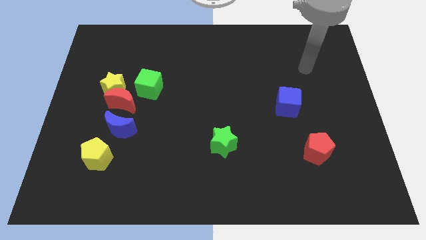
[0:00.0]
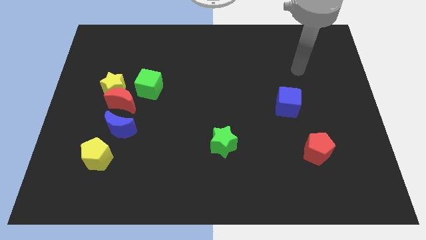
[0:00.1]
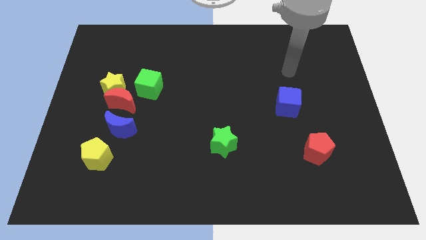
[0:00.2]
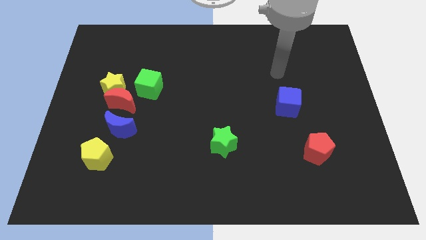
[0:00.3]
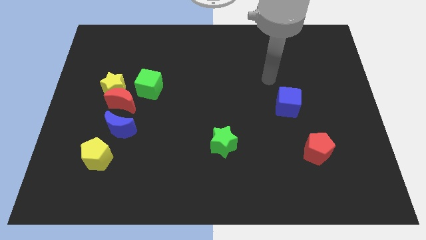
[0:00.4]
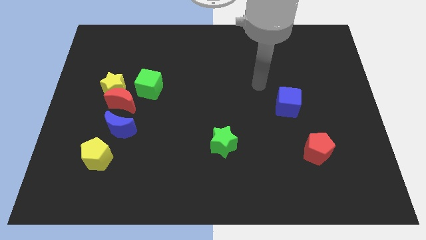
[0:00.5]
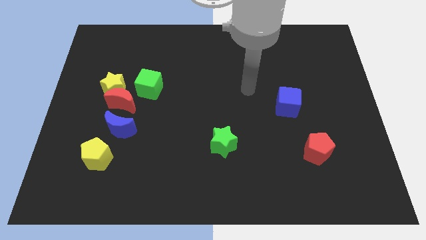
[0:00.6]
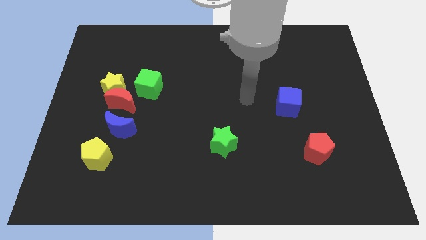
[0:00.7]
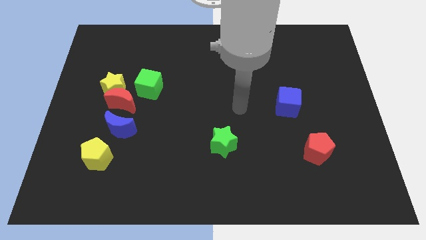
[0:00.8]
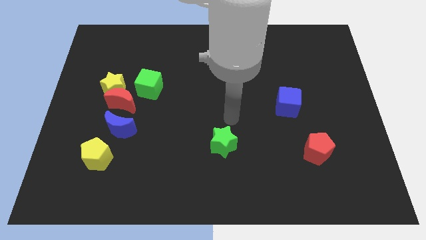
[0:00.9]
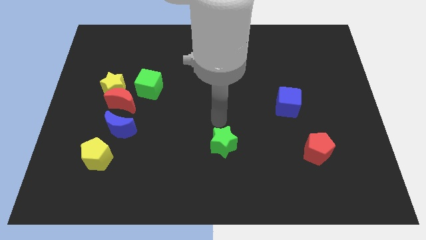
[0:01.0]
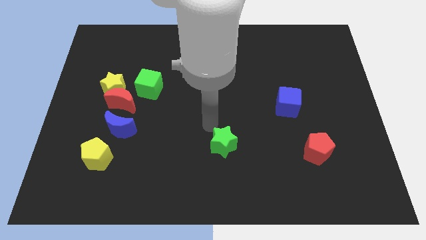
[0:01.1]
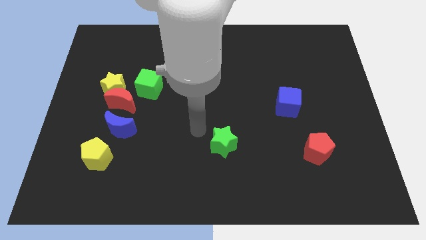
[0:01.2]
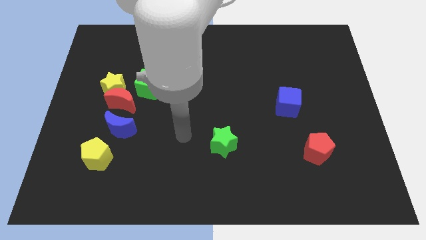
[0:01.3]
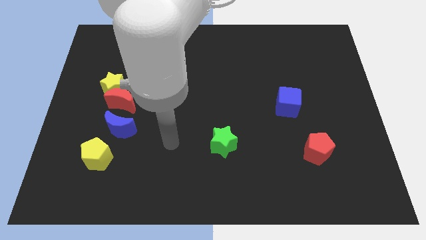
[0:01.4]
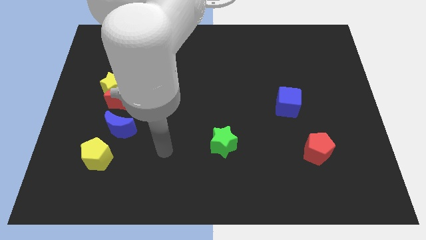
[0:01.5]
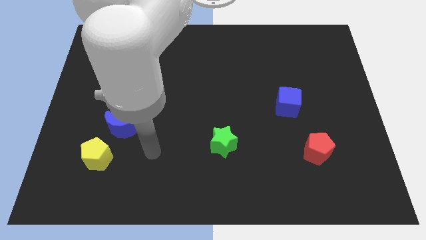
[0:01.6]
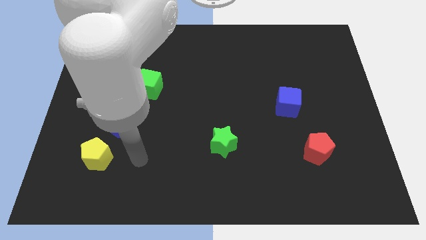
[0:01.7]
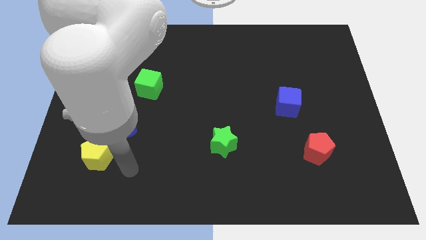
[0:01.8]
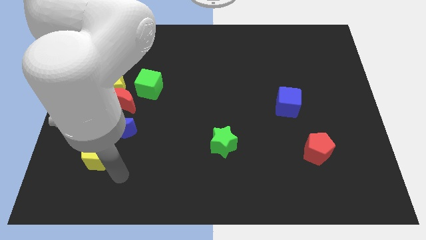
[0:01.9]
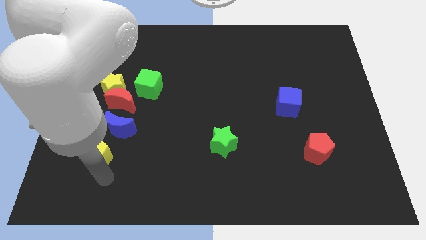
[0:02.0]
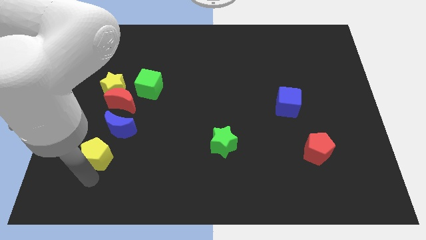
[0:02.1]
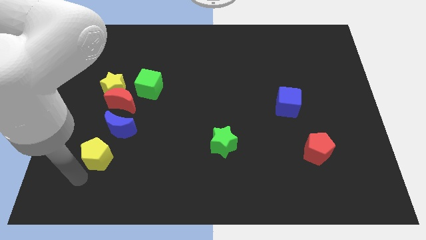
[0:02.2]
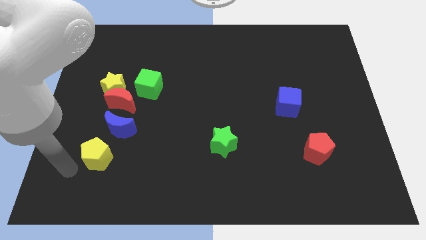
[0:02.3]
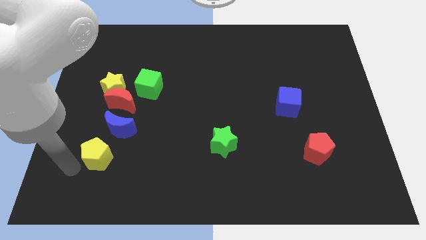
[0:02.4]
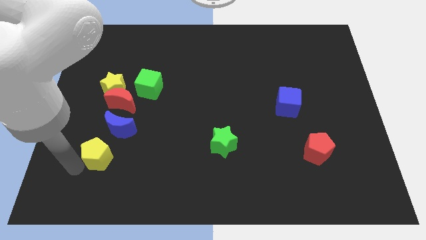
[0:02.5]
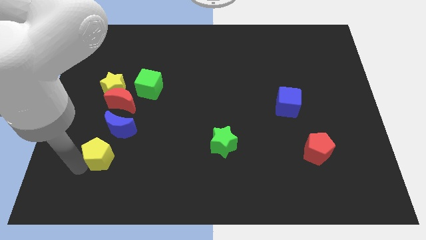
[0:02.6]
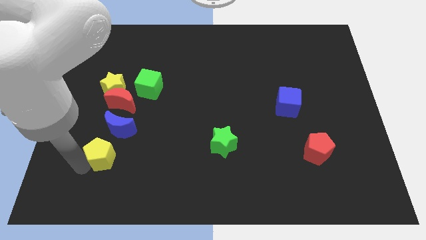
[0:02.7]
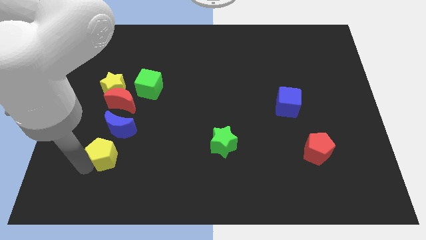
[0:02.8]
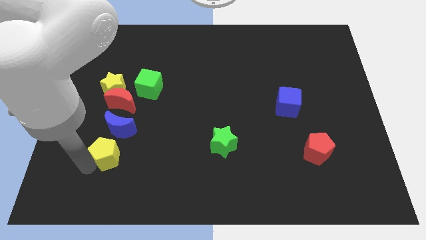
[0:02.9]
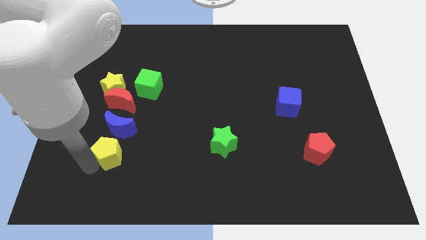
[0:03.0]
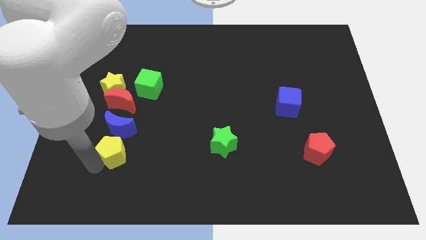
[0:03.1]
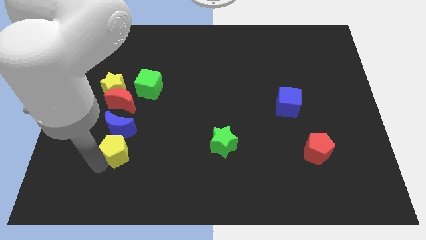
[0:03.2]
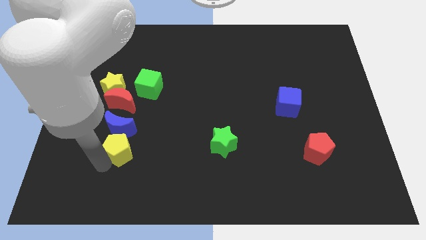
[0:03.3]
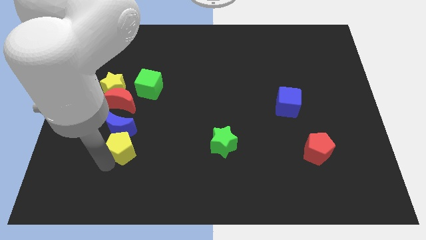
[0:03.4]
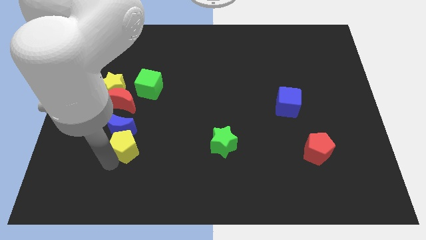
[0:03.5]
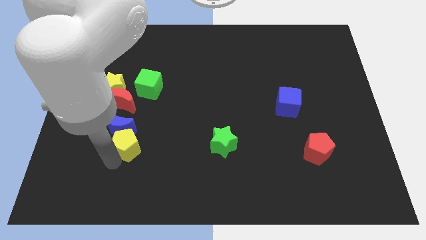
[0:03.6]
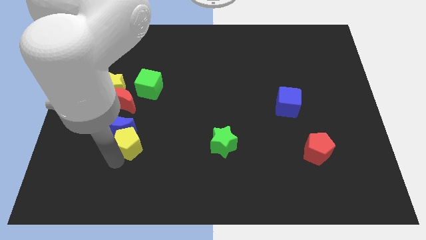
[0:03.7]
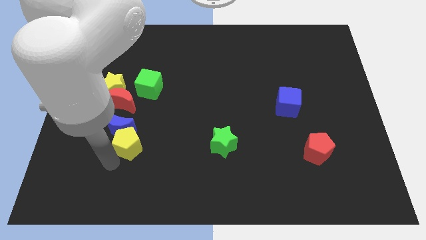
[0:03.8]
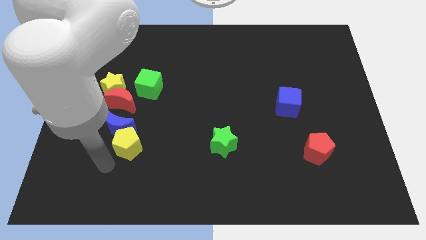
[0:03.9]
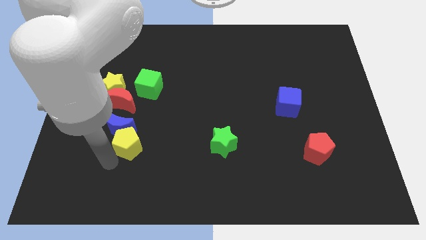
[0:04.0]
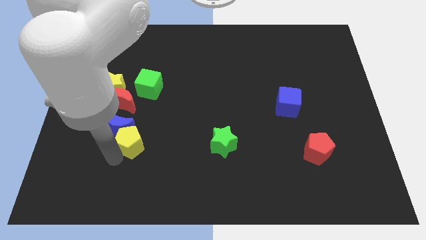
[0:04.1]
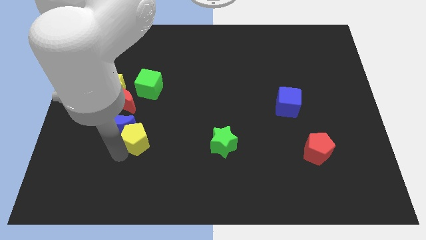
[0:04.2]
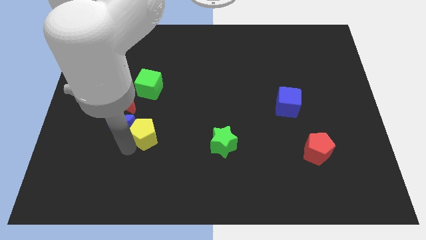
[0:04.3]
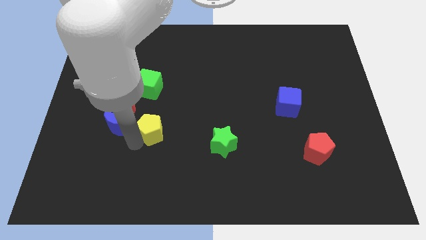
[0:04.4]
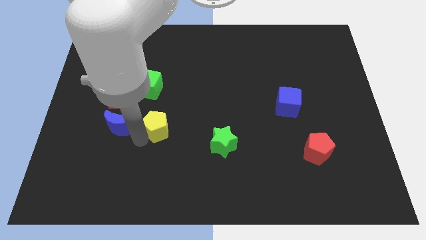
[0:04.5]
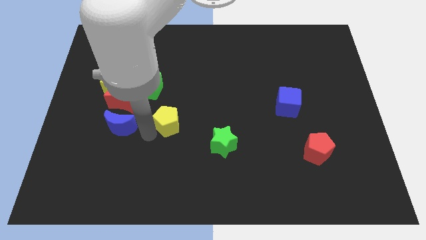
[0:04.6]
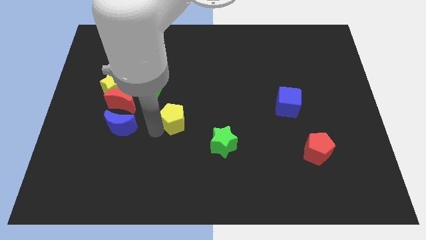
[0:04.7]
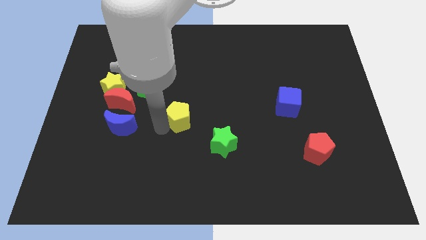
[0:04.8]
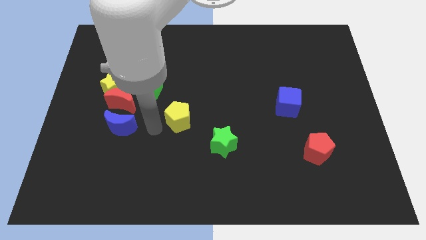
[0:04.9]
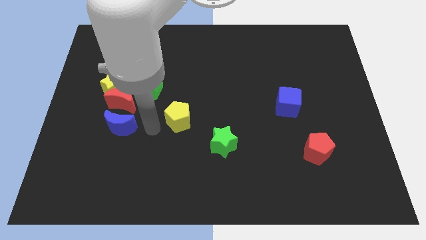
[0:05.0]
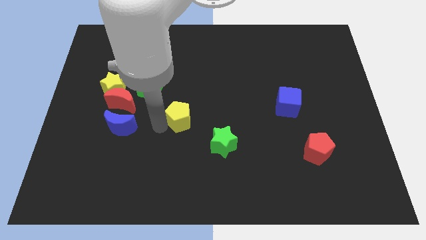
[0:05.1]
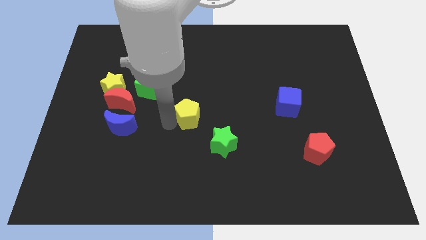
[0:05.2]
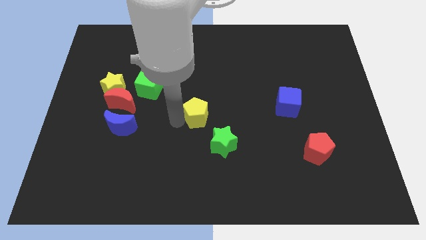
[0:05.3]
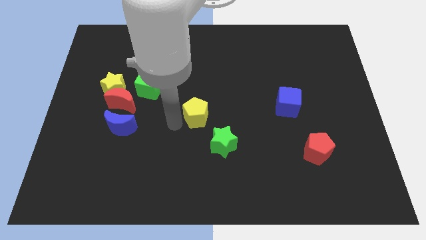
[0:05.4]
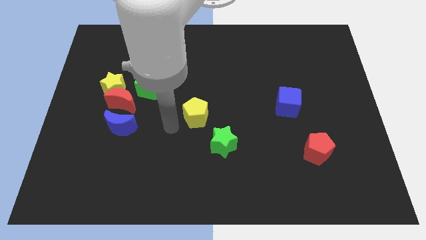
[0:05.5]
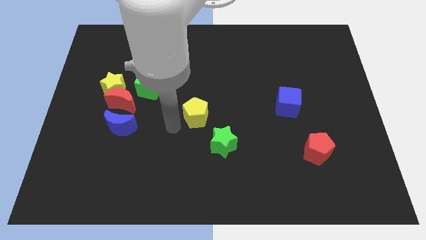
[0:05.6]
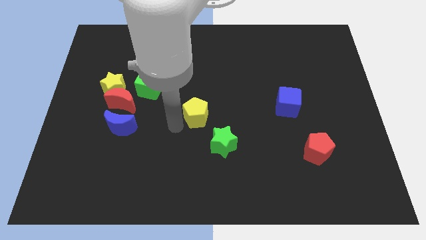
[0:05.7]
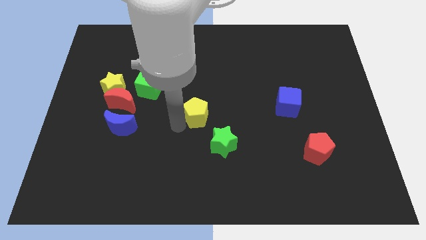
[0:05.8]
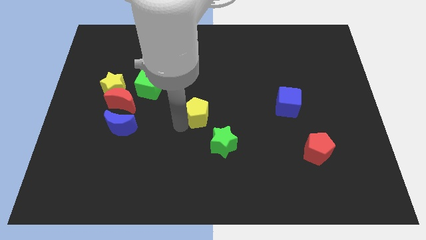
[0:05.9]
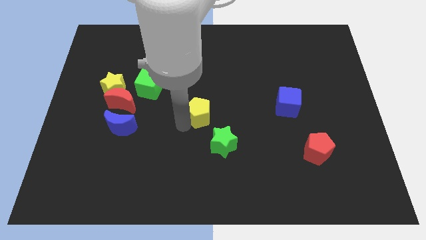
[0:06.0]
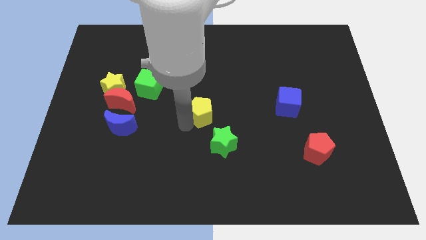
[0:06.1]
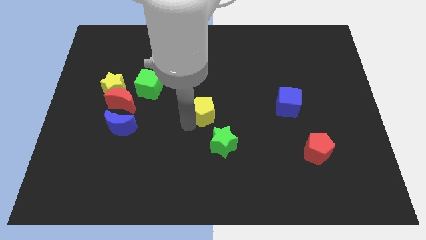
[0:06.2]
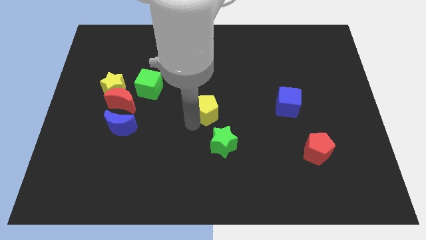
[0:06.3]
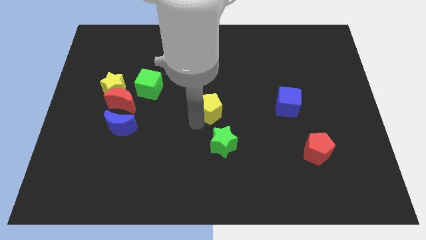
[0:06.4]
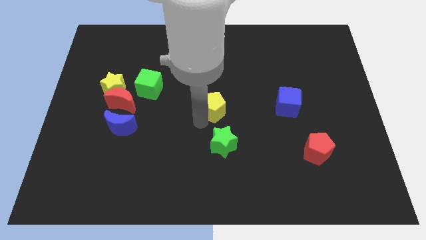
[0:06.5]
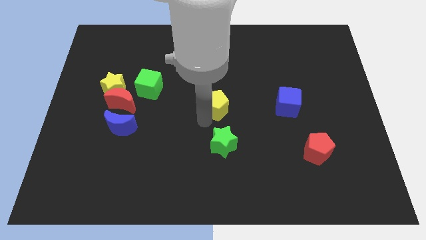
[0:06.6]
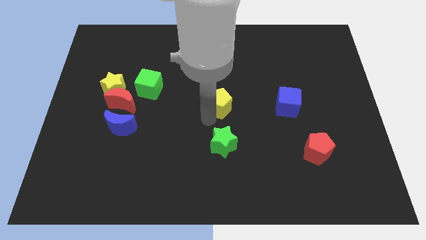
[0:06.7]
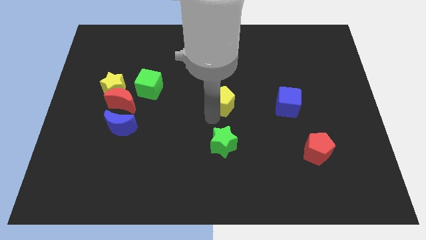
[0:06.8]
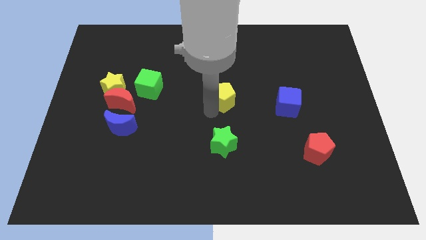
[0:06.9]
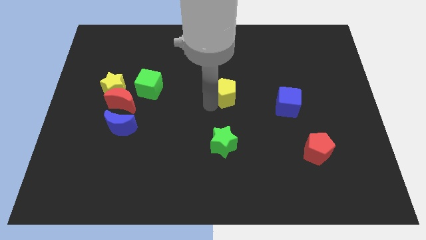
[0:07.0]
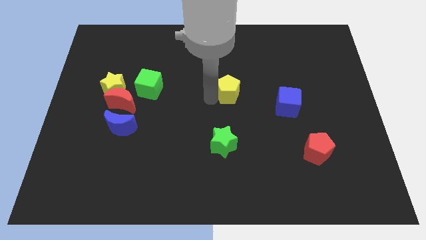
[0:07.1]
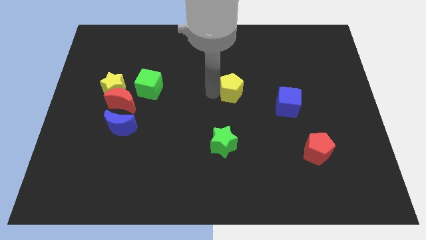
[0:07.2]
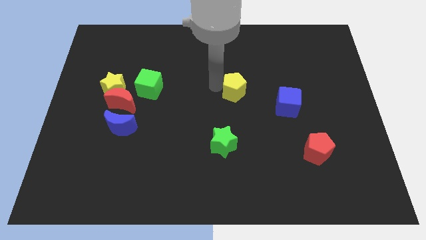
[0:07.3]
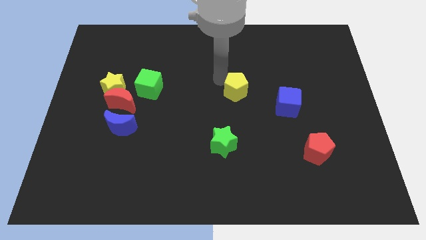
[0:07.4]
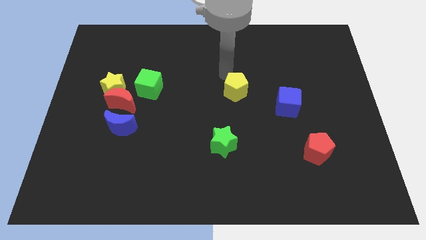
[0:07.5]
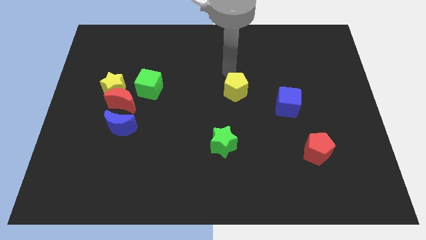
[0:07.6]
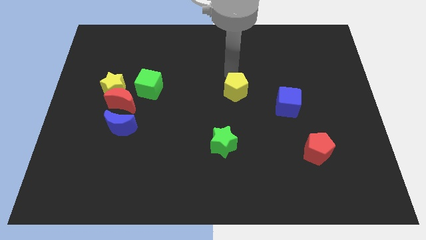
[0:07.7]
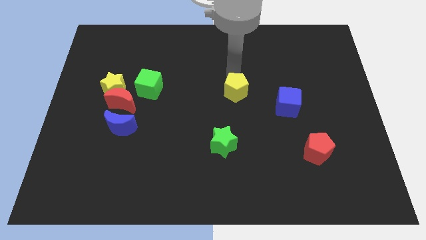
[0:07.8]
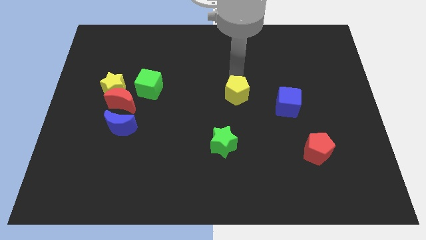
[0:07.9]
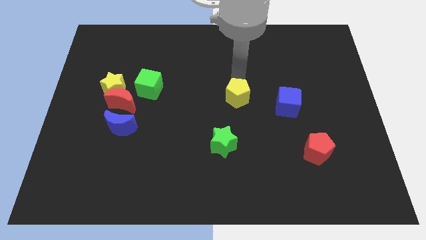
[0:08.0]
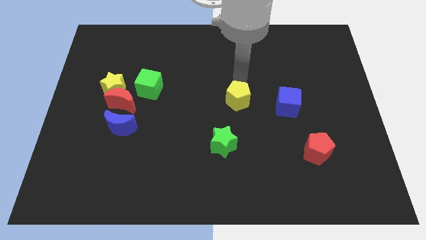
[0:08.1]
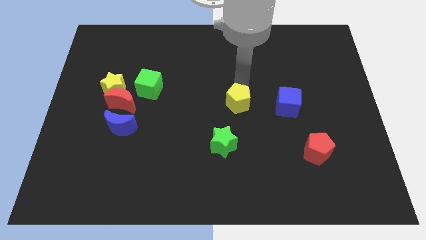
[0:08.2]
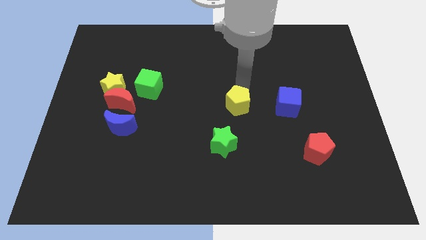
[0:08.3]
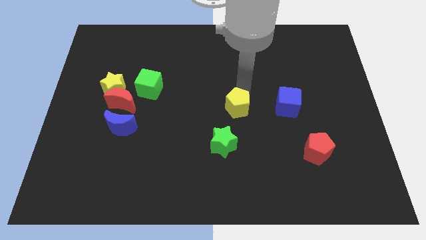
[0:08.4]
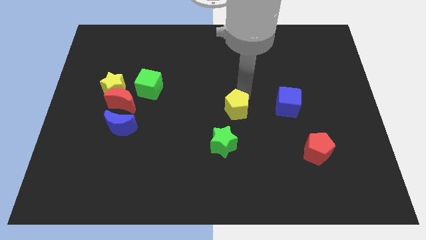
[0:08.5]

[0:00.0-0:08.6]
put the yellow pentagon to the top right of the green star
